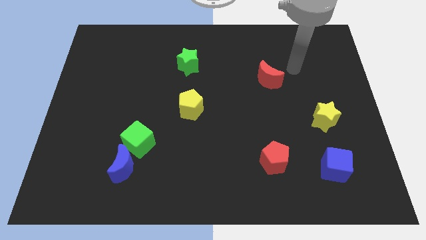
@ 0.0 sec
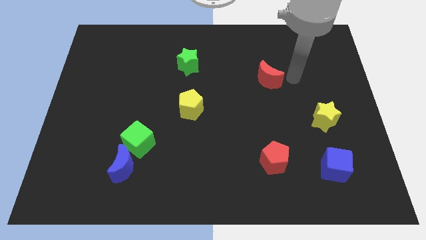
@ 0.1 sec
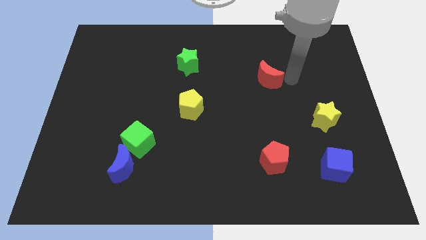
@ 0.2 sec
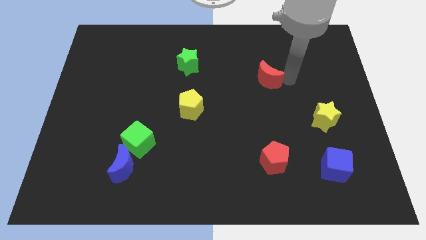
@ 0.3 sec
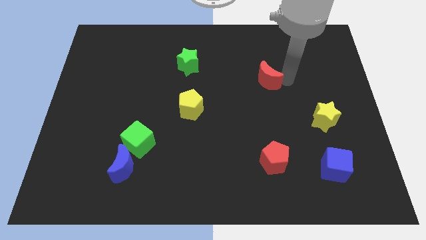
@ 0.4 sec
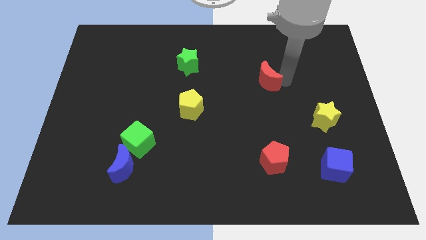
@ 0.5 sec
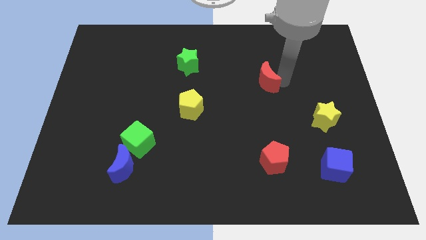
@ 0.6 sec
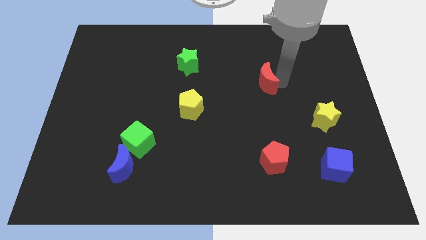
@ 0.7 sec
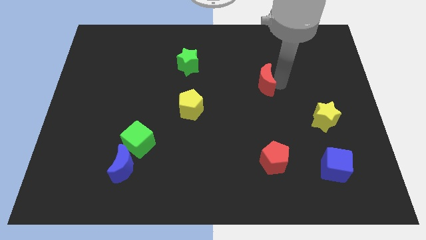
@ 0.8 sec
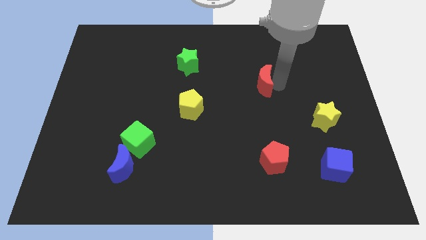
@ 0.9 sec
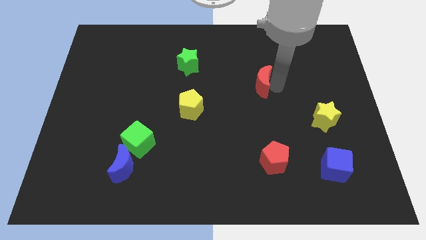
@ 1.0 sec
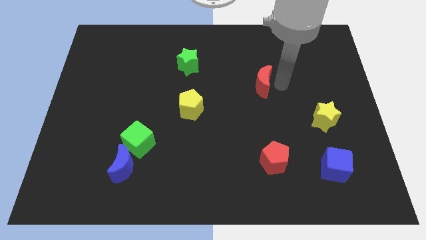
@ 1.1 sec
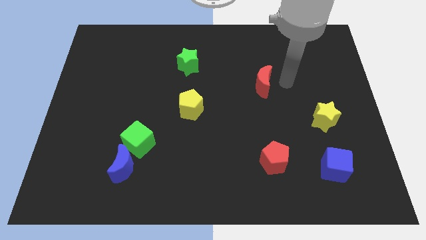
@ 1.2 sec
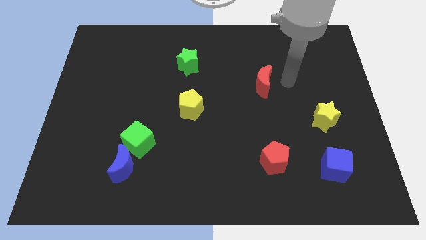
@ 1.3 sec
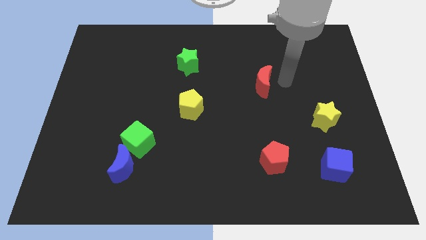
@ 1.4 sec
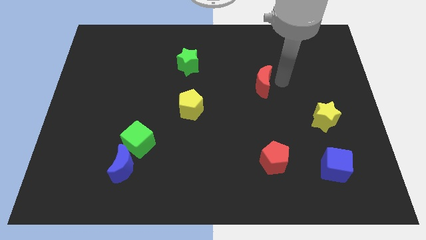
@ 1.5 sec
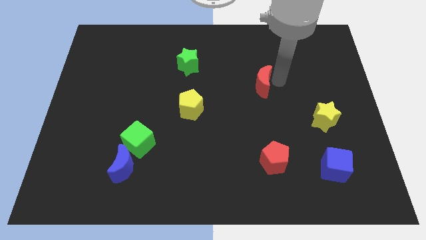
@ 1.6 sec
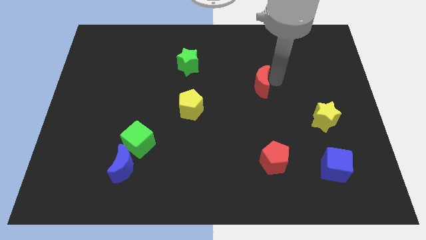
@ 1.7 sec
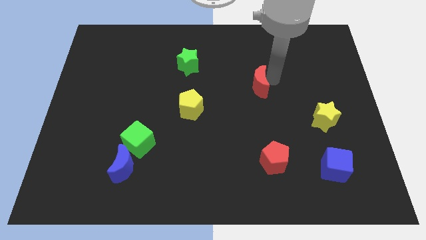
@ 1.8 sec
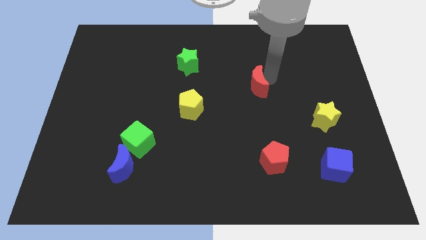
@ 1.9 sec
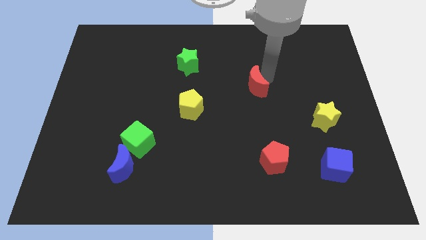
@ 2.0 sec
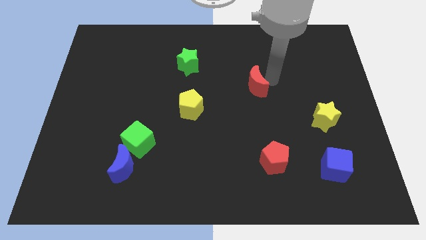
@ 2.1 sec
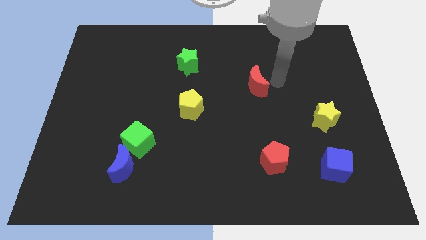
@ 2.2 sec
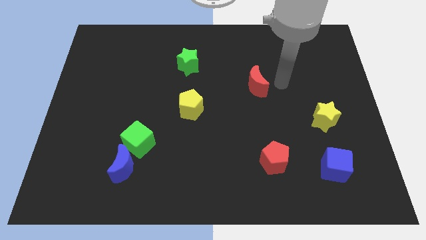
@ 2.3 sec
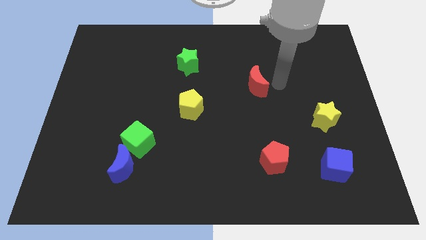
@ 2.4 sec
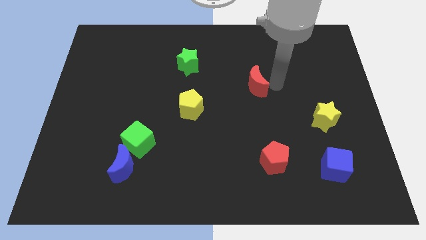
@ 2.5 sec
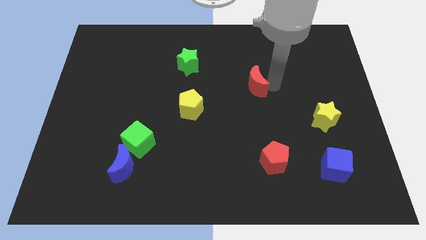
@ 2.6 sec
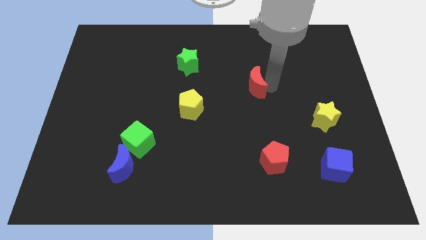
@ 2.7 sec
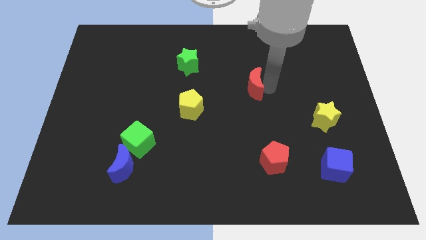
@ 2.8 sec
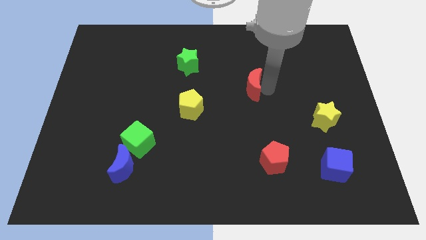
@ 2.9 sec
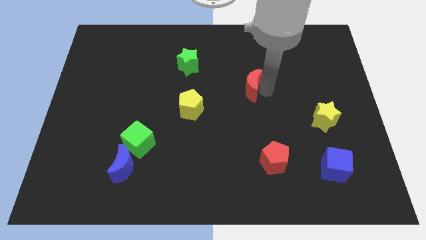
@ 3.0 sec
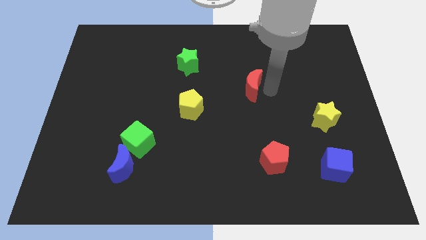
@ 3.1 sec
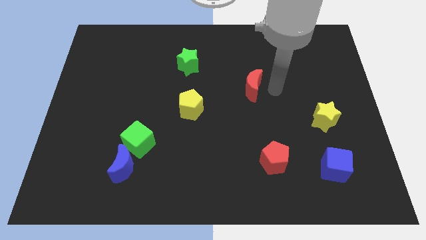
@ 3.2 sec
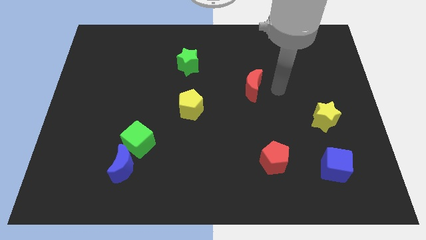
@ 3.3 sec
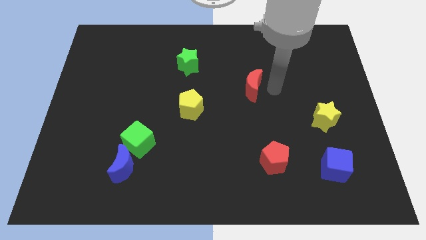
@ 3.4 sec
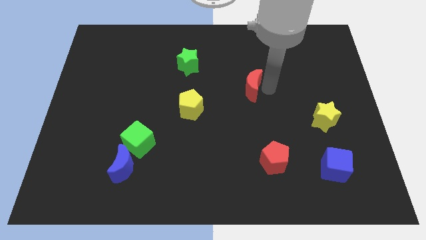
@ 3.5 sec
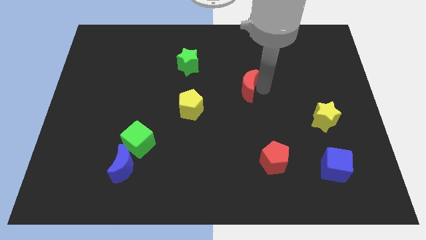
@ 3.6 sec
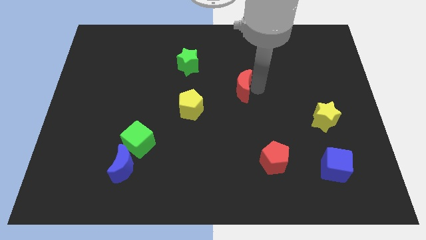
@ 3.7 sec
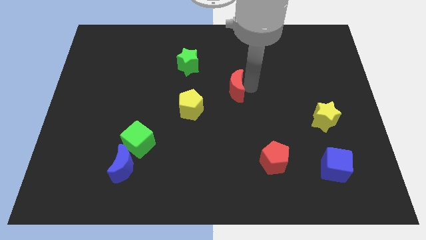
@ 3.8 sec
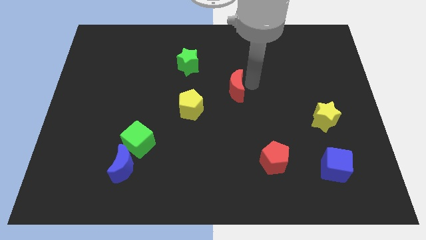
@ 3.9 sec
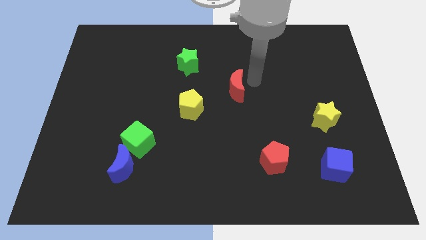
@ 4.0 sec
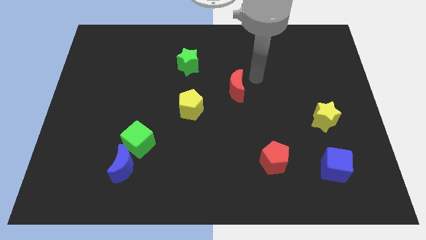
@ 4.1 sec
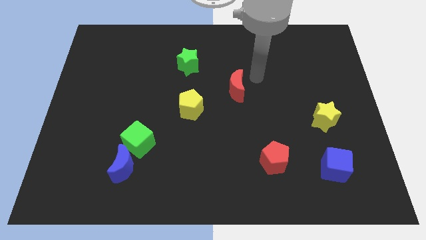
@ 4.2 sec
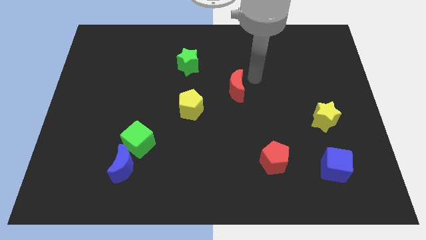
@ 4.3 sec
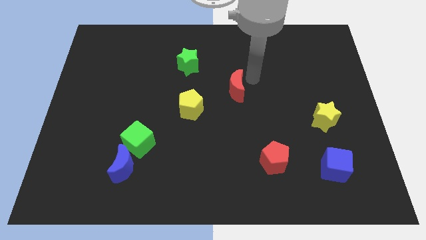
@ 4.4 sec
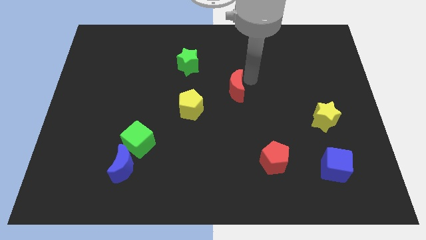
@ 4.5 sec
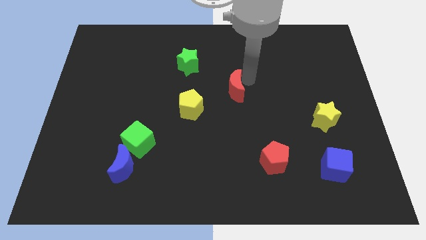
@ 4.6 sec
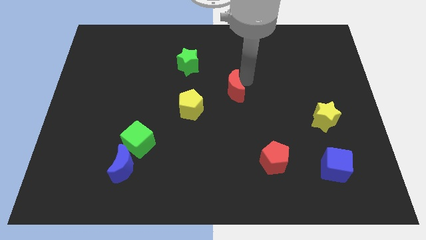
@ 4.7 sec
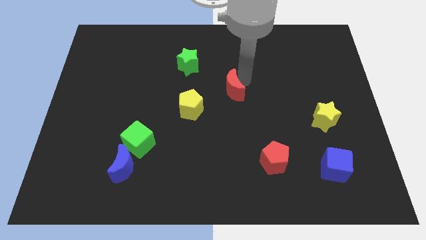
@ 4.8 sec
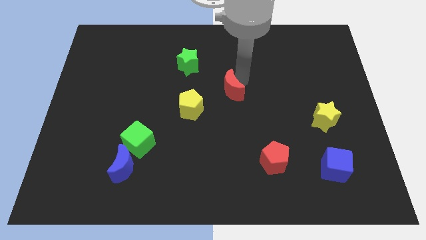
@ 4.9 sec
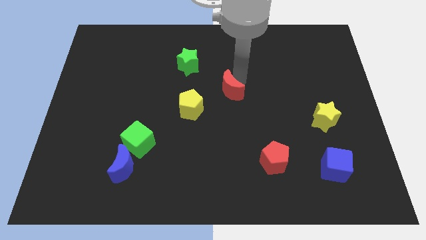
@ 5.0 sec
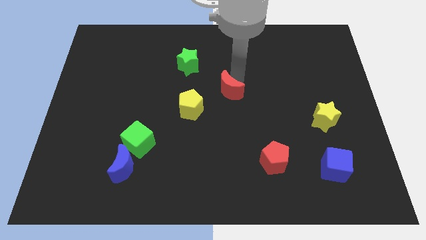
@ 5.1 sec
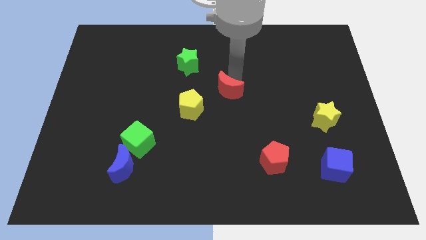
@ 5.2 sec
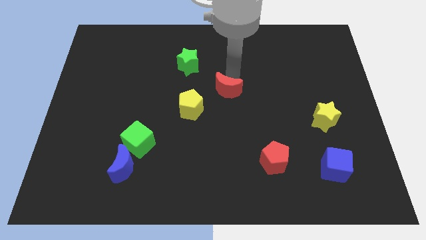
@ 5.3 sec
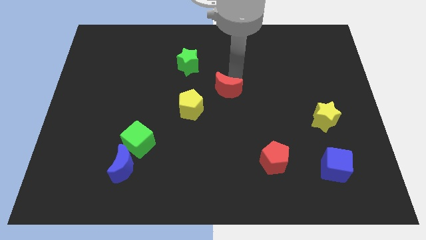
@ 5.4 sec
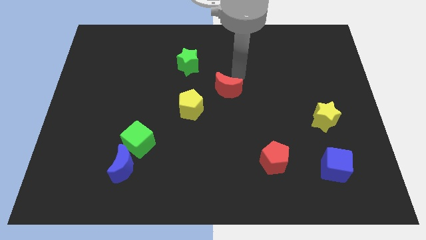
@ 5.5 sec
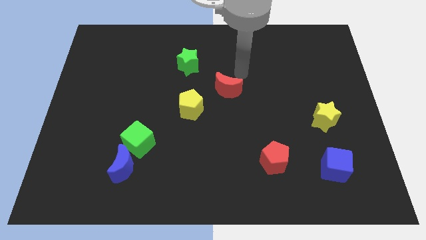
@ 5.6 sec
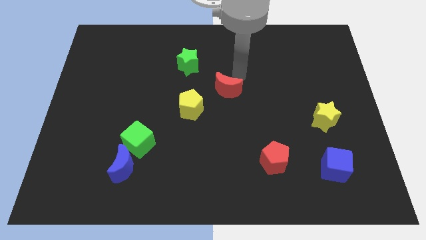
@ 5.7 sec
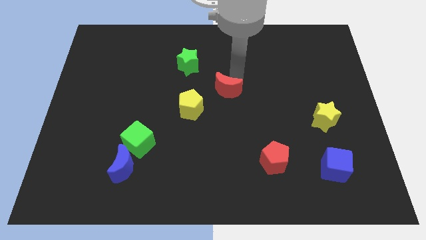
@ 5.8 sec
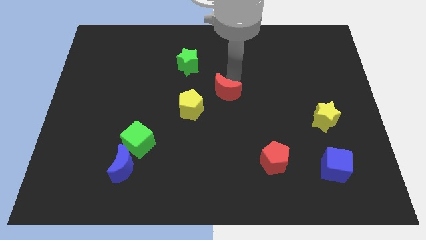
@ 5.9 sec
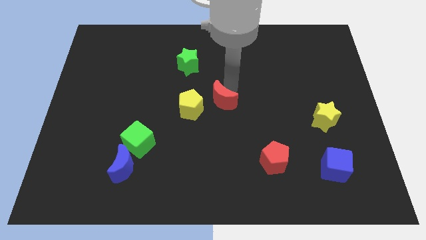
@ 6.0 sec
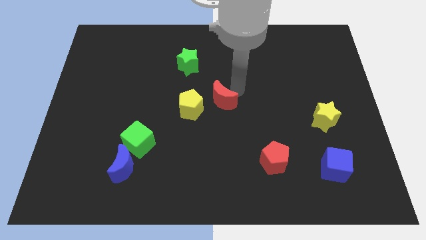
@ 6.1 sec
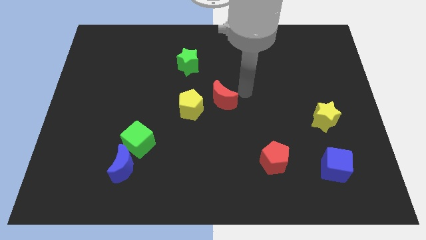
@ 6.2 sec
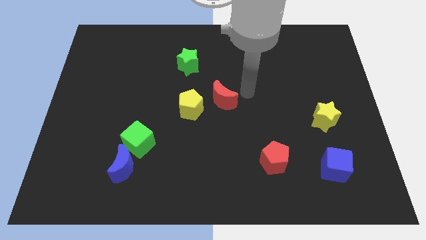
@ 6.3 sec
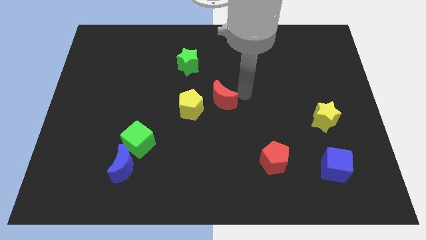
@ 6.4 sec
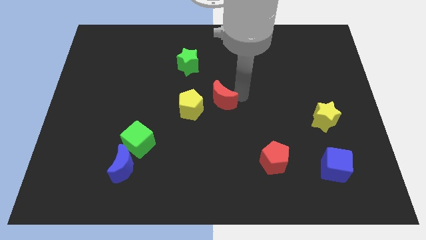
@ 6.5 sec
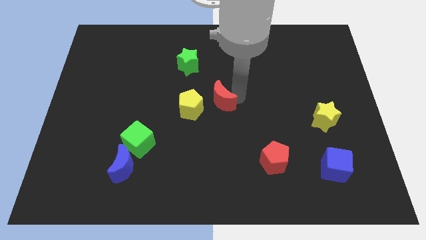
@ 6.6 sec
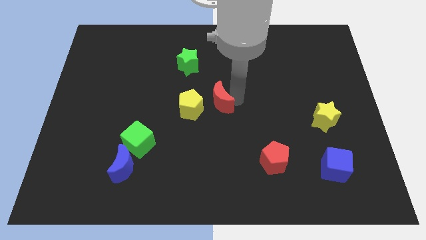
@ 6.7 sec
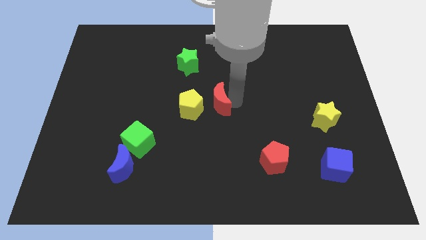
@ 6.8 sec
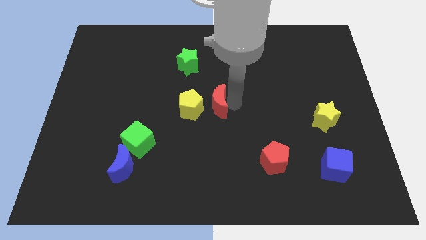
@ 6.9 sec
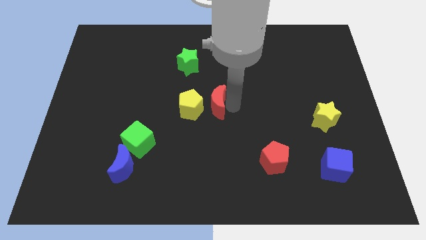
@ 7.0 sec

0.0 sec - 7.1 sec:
slide the red moon close to the yellow pentagon

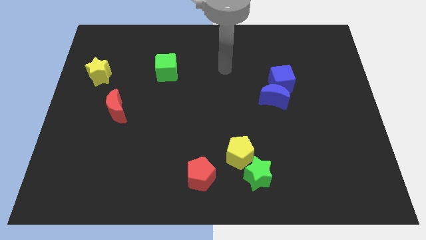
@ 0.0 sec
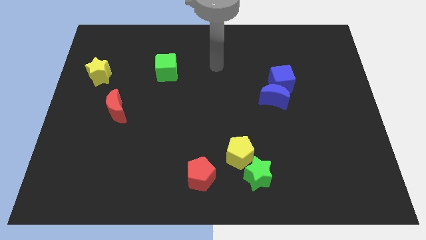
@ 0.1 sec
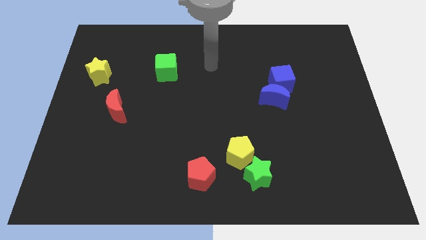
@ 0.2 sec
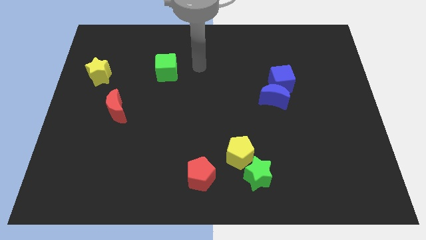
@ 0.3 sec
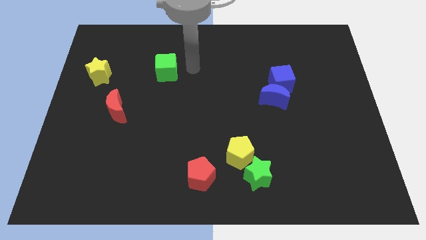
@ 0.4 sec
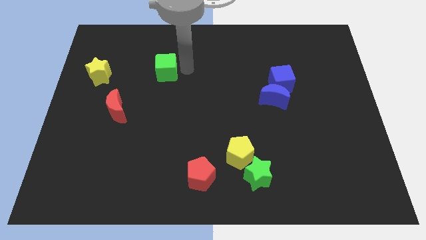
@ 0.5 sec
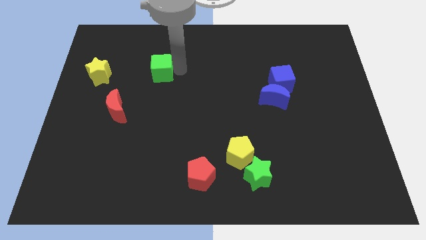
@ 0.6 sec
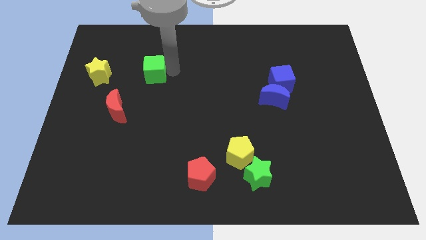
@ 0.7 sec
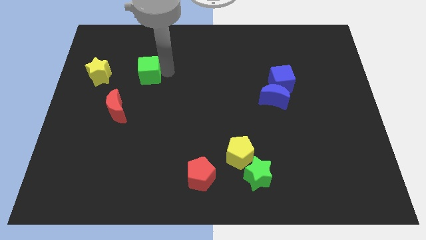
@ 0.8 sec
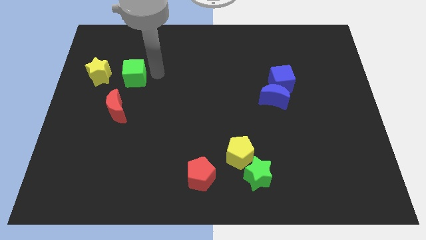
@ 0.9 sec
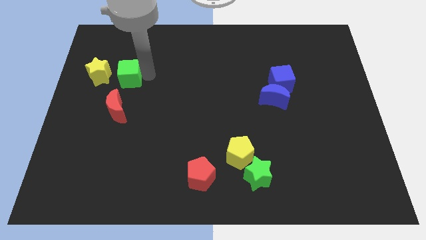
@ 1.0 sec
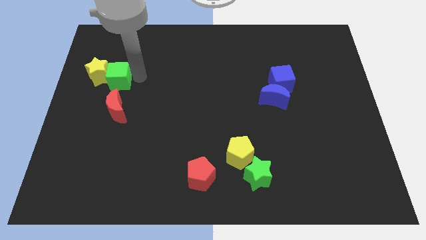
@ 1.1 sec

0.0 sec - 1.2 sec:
put the green cube towards the yellow star
